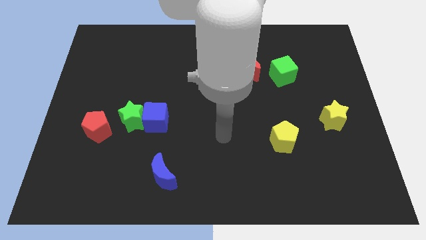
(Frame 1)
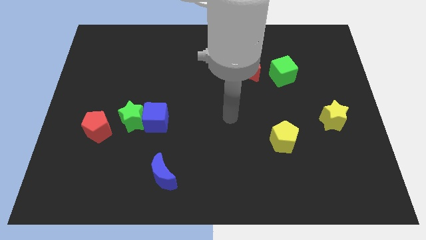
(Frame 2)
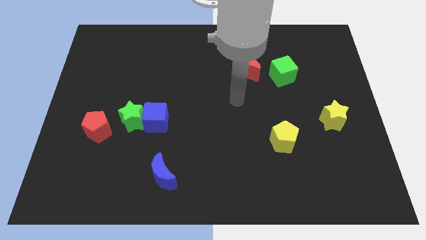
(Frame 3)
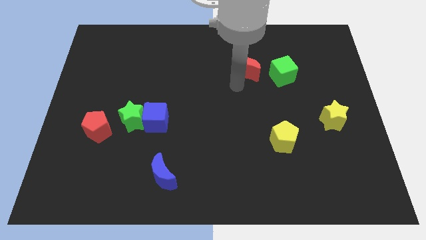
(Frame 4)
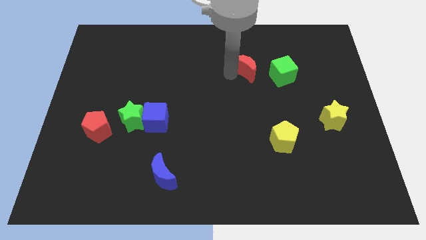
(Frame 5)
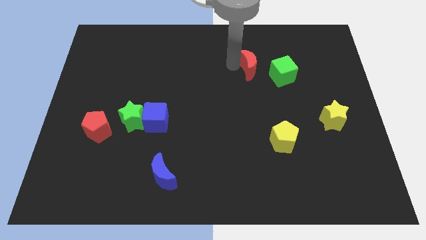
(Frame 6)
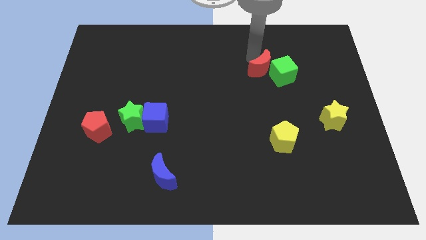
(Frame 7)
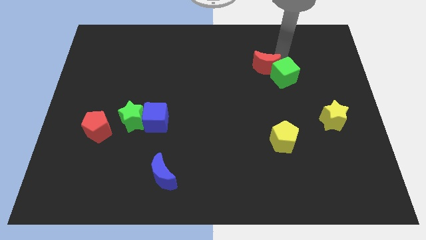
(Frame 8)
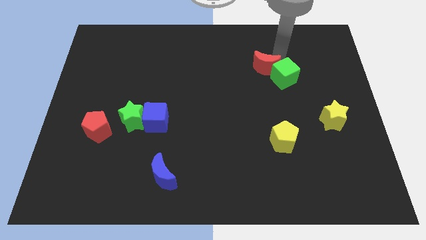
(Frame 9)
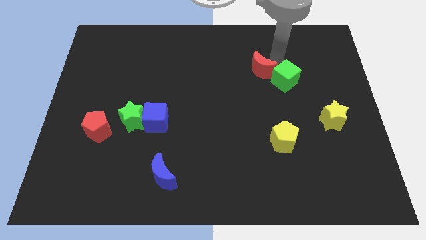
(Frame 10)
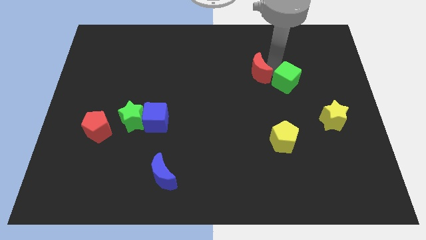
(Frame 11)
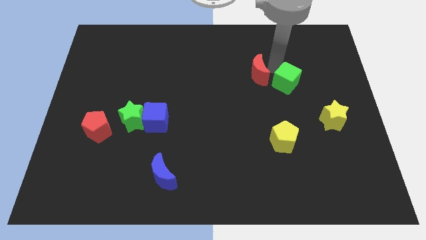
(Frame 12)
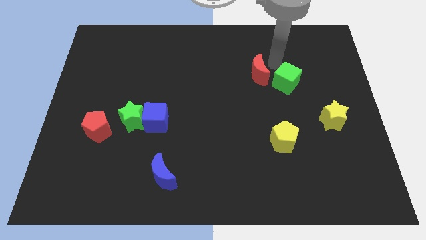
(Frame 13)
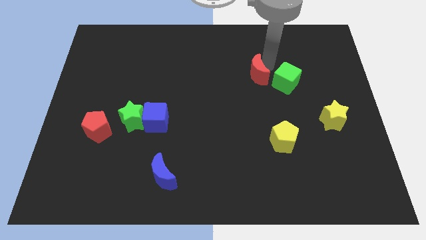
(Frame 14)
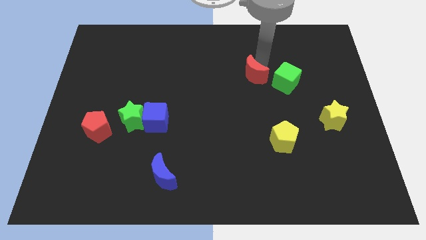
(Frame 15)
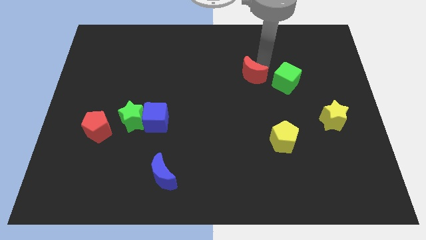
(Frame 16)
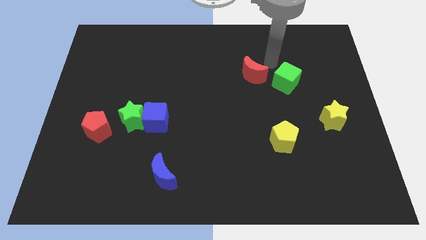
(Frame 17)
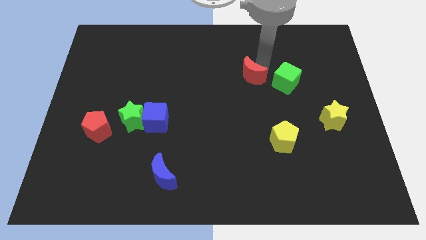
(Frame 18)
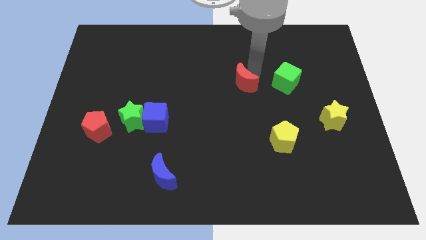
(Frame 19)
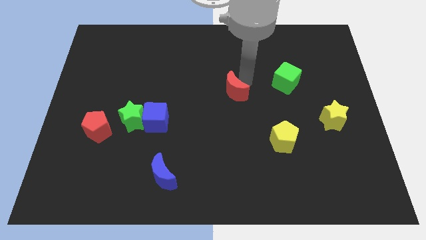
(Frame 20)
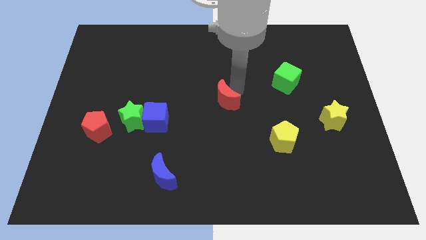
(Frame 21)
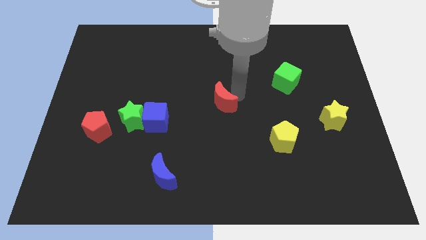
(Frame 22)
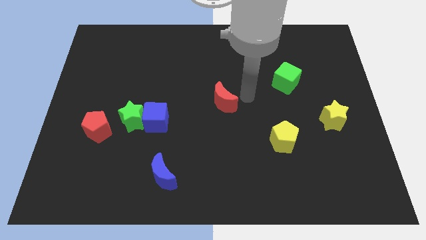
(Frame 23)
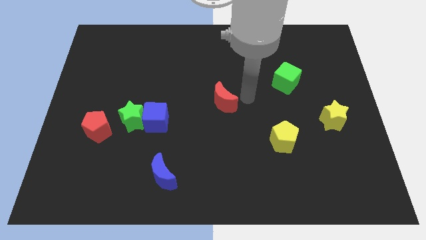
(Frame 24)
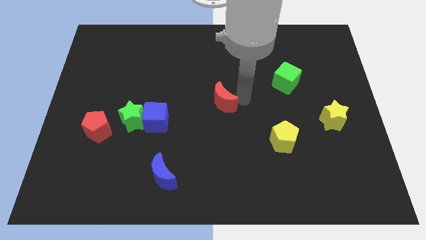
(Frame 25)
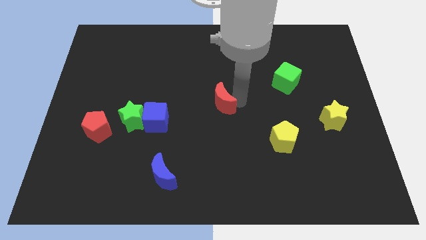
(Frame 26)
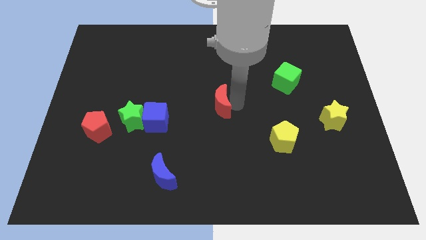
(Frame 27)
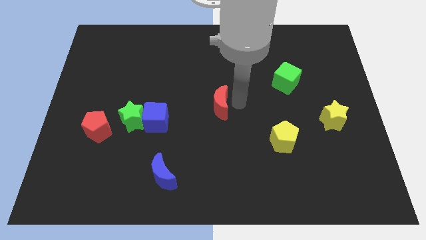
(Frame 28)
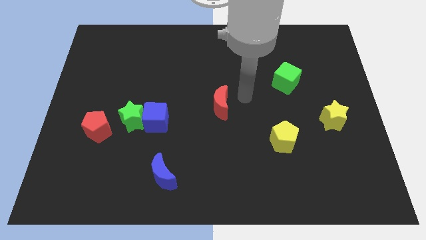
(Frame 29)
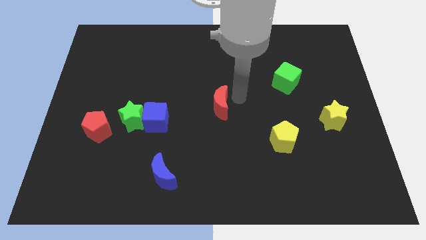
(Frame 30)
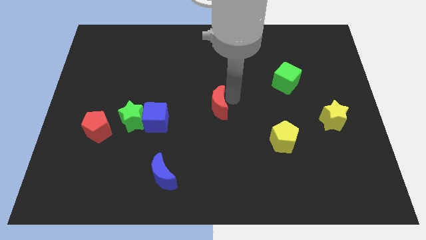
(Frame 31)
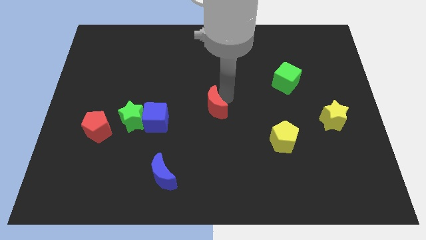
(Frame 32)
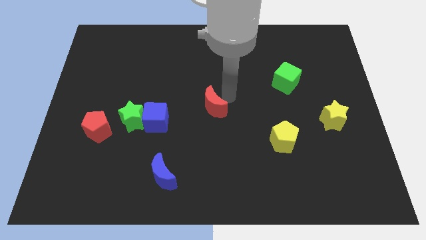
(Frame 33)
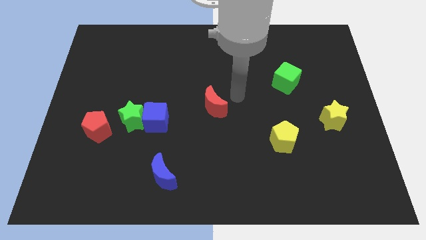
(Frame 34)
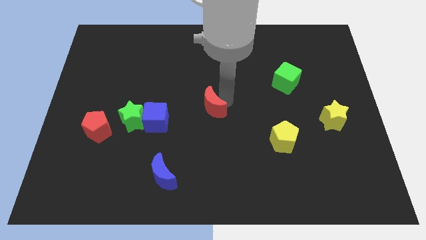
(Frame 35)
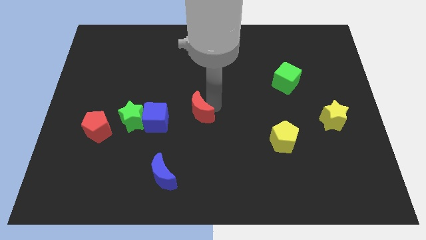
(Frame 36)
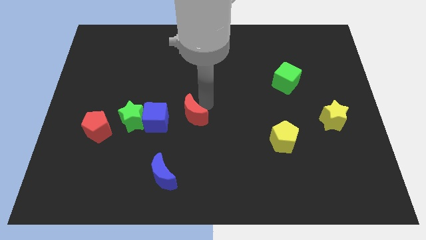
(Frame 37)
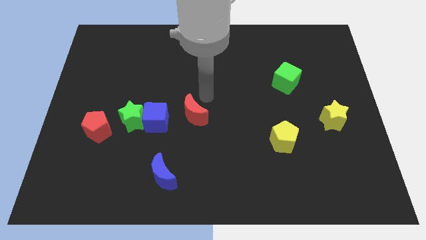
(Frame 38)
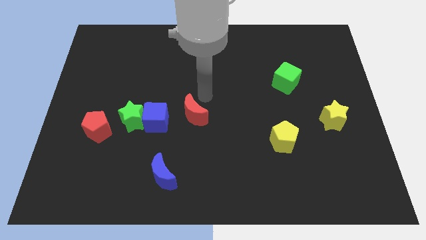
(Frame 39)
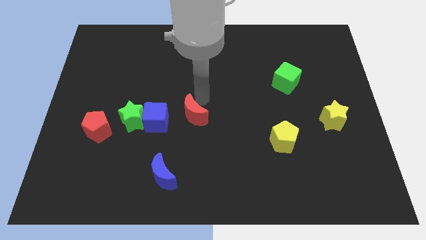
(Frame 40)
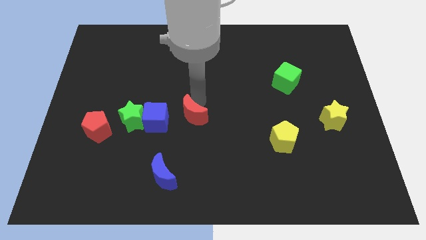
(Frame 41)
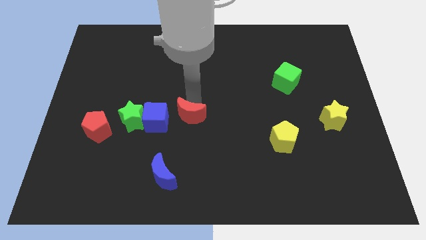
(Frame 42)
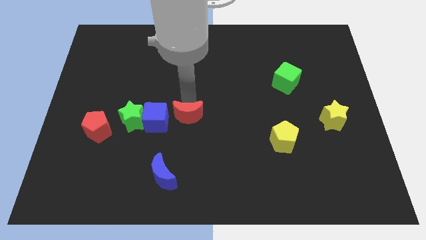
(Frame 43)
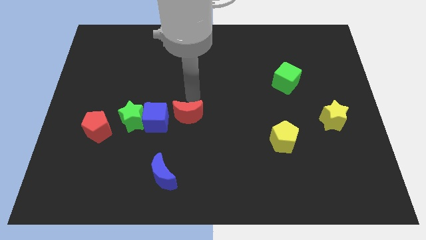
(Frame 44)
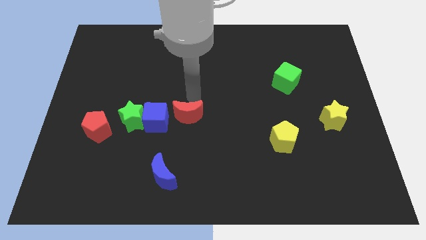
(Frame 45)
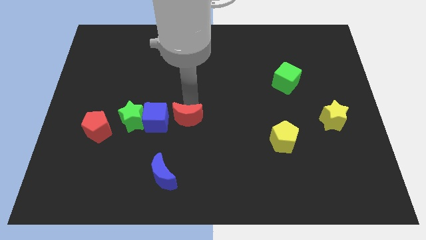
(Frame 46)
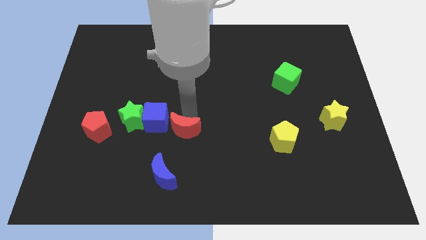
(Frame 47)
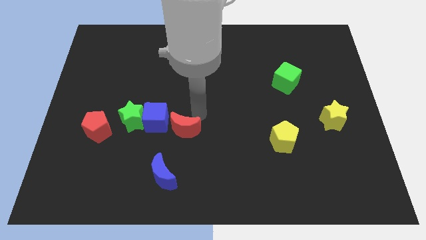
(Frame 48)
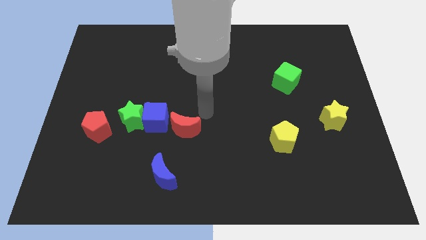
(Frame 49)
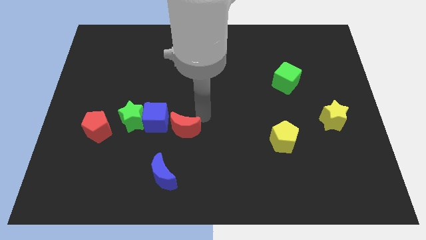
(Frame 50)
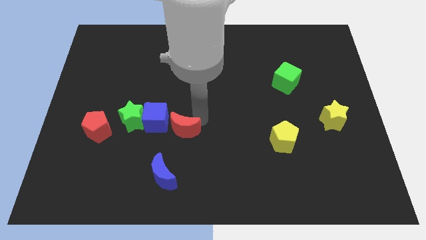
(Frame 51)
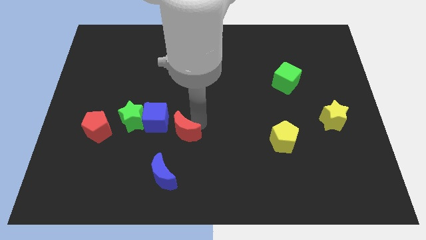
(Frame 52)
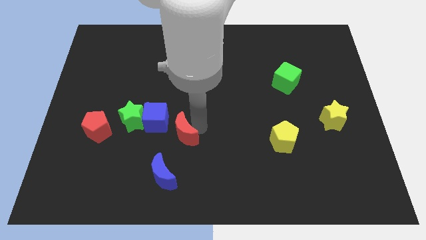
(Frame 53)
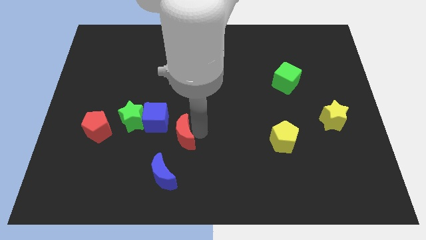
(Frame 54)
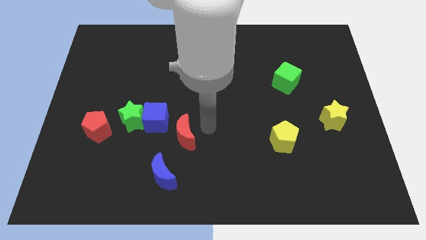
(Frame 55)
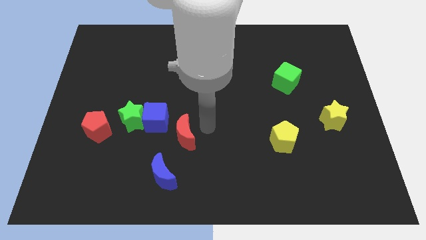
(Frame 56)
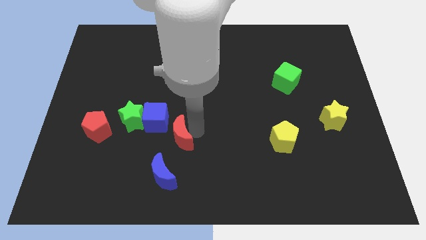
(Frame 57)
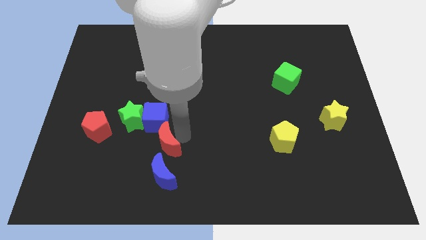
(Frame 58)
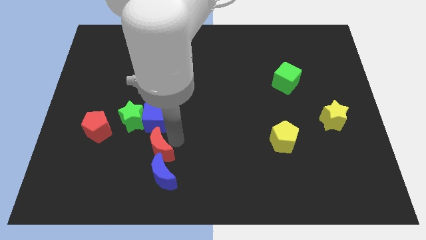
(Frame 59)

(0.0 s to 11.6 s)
move the red moon to the top left of the blue moon

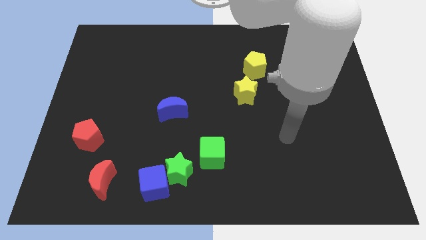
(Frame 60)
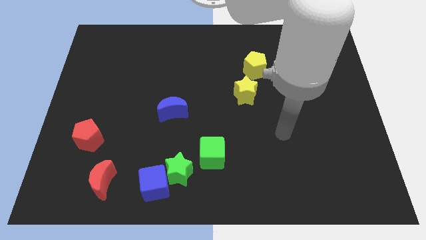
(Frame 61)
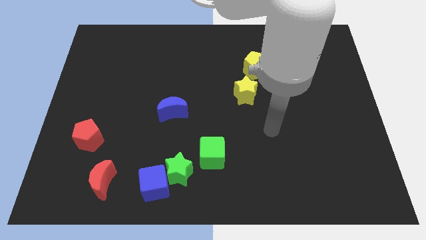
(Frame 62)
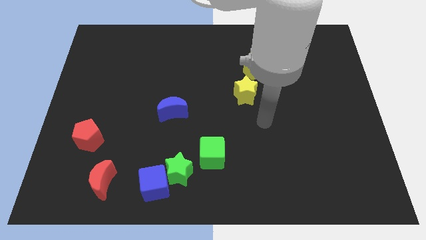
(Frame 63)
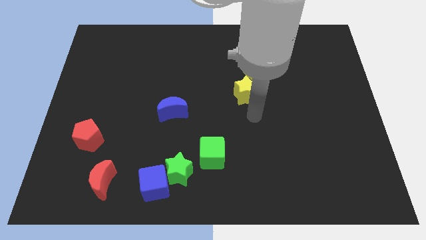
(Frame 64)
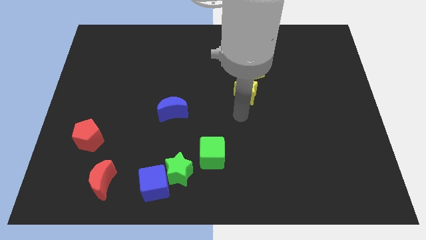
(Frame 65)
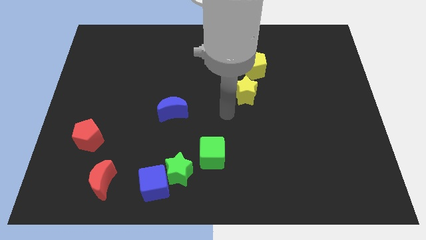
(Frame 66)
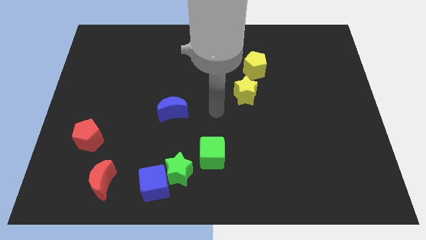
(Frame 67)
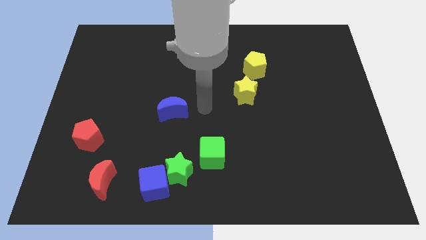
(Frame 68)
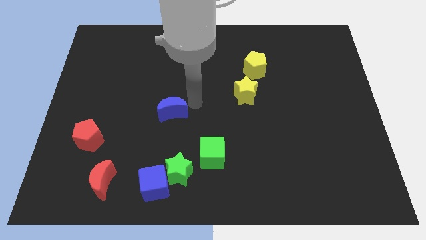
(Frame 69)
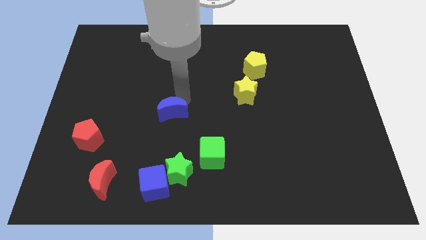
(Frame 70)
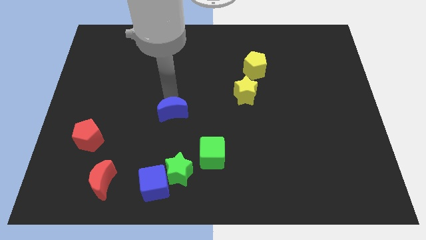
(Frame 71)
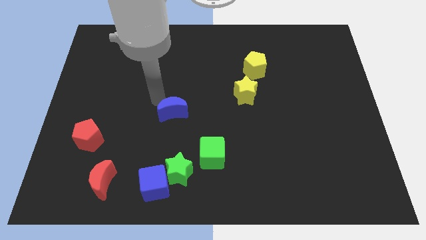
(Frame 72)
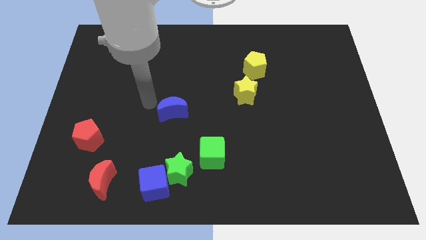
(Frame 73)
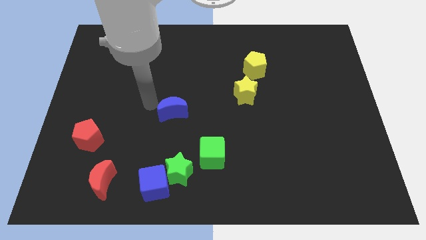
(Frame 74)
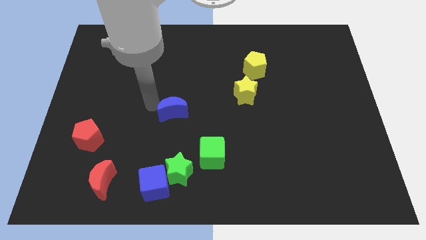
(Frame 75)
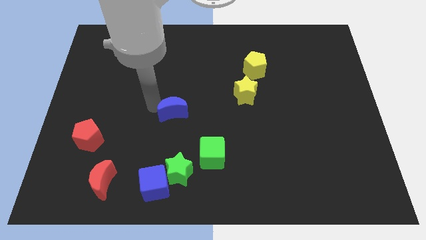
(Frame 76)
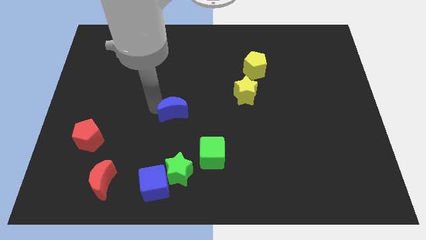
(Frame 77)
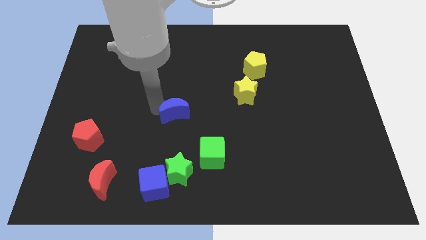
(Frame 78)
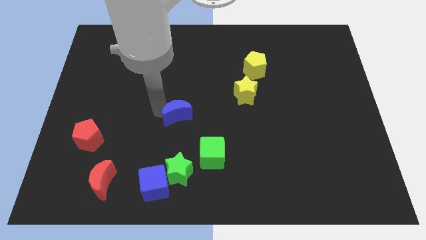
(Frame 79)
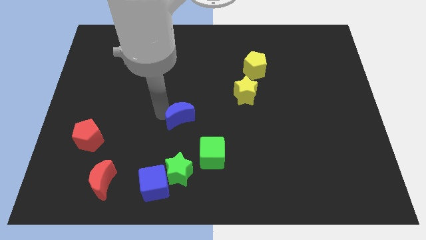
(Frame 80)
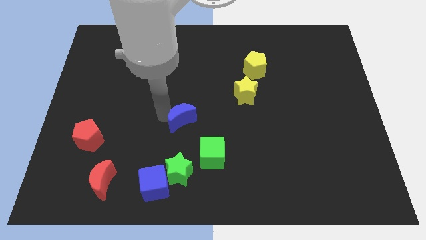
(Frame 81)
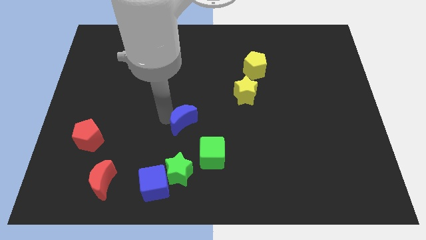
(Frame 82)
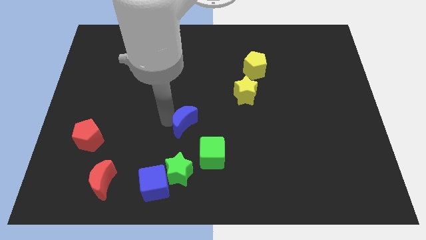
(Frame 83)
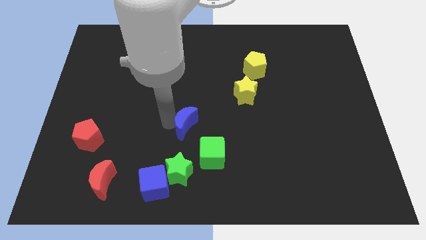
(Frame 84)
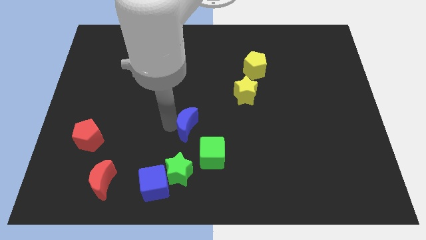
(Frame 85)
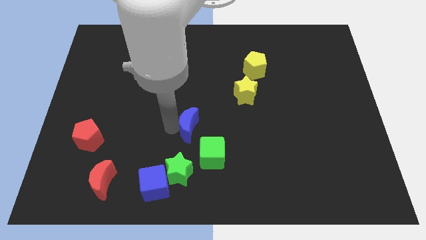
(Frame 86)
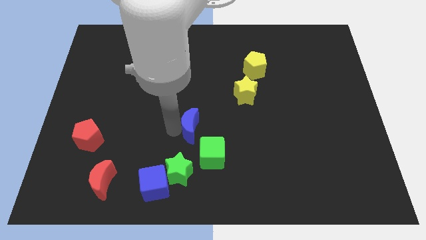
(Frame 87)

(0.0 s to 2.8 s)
push the blue moon to the top of the green cube
